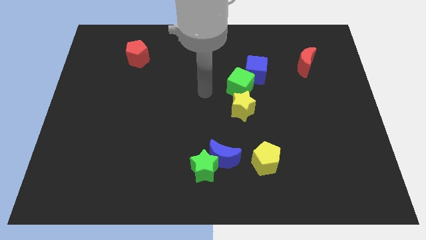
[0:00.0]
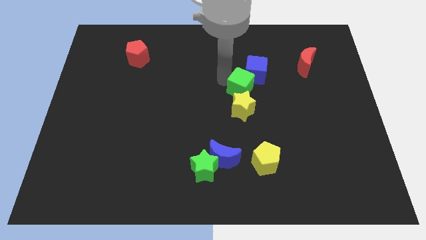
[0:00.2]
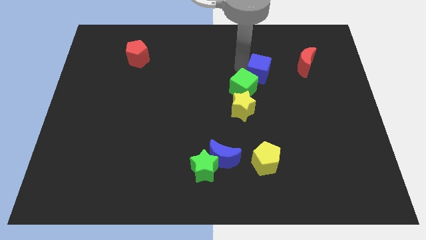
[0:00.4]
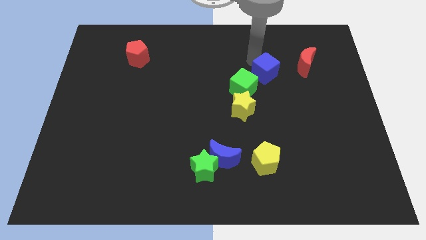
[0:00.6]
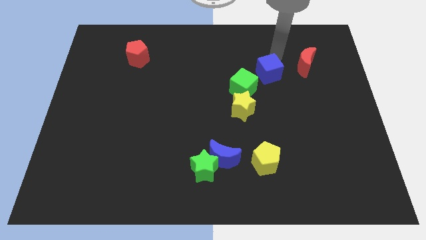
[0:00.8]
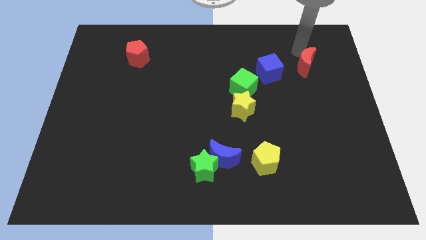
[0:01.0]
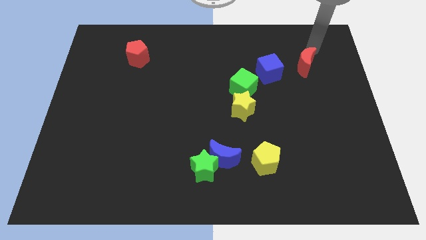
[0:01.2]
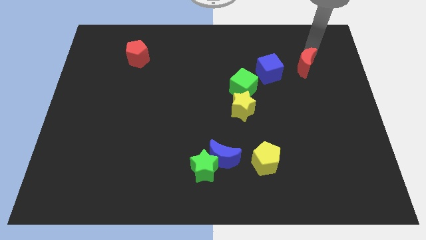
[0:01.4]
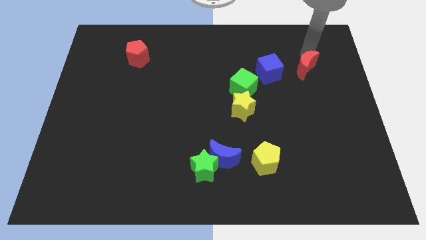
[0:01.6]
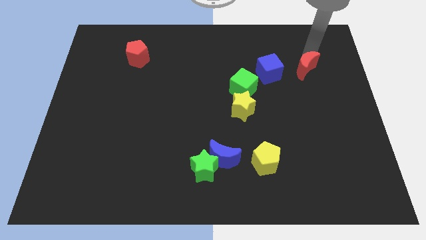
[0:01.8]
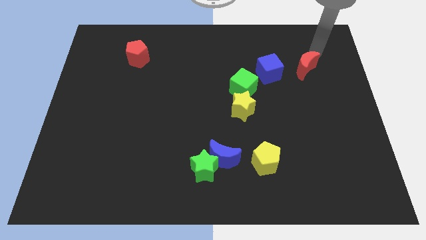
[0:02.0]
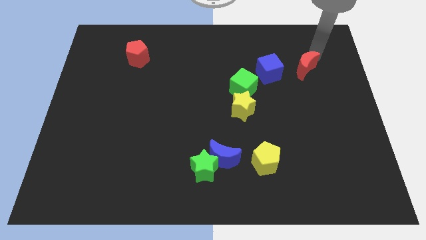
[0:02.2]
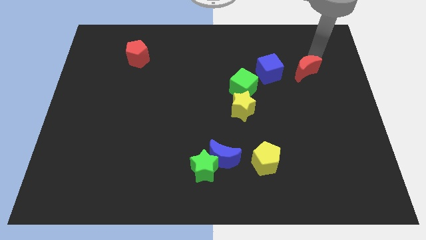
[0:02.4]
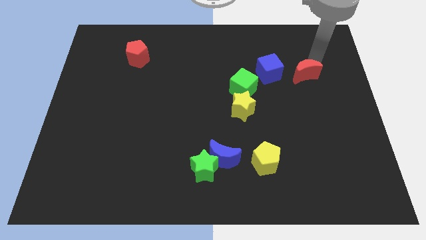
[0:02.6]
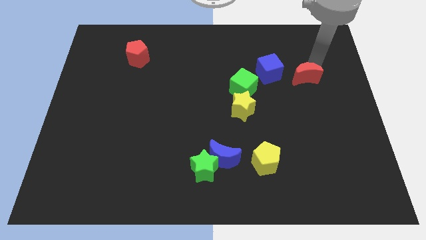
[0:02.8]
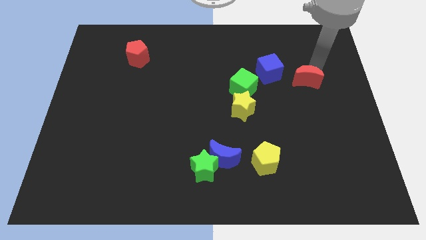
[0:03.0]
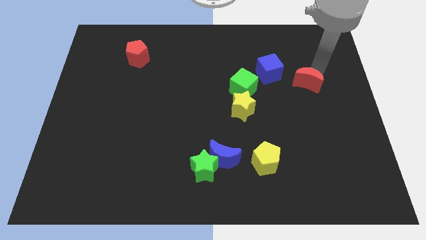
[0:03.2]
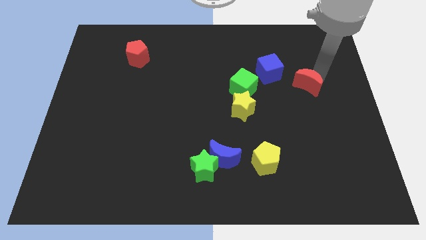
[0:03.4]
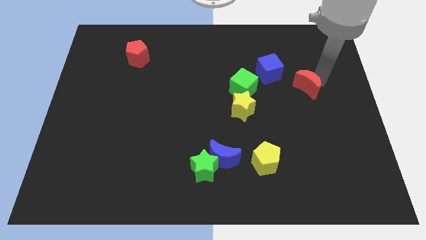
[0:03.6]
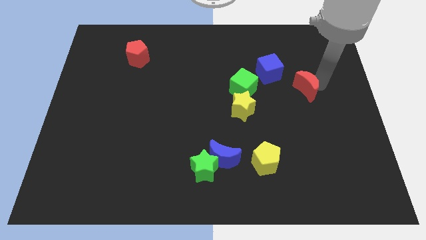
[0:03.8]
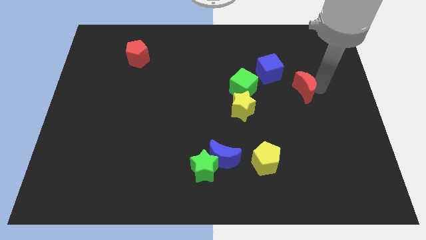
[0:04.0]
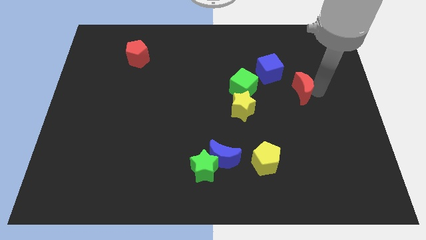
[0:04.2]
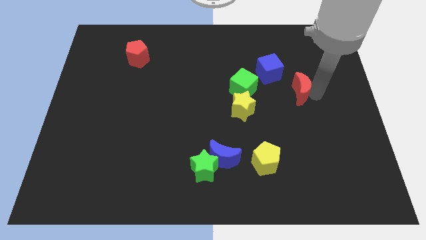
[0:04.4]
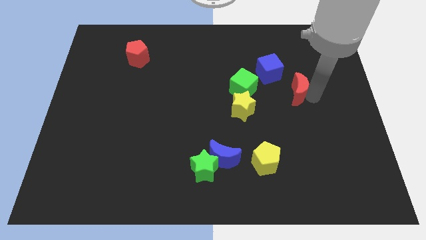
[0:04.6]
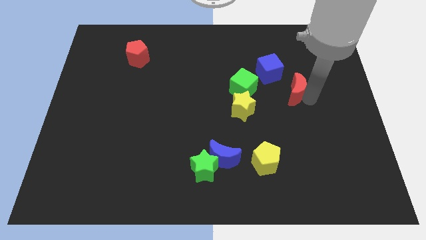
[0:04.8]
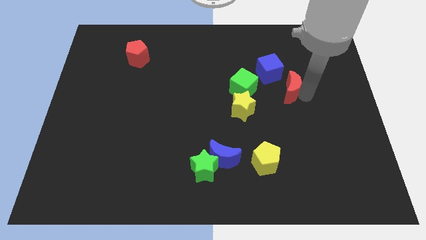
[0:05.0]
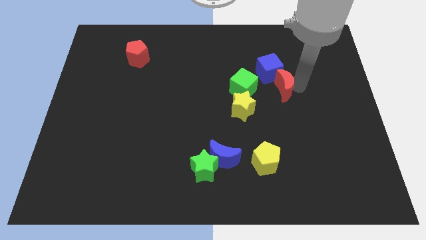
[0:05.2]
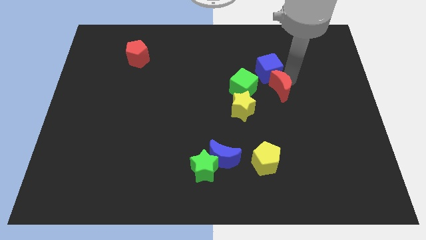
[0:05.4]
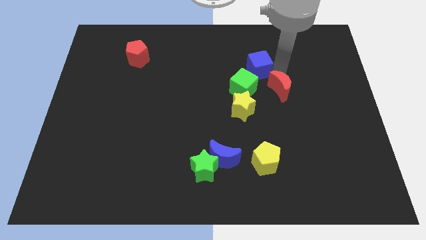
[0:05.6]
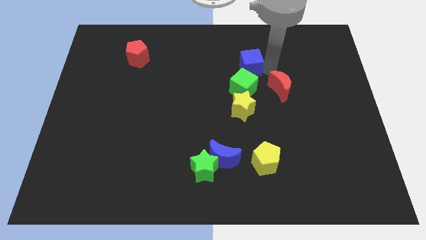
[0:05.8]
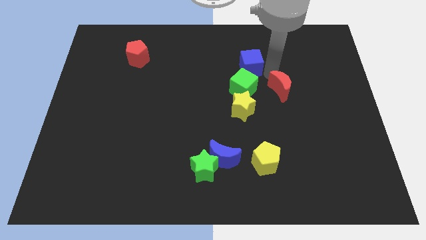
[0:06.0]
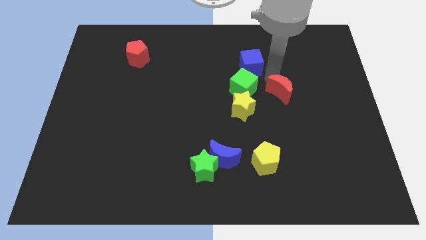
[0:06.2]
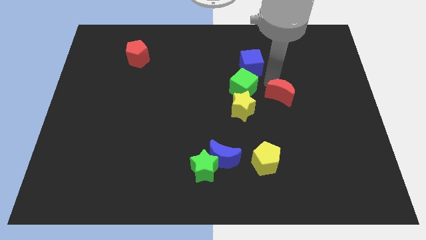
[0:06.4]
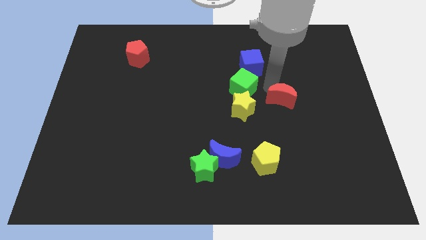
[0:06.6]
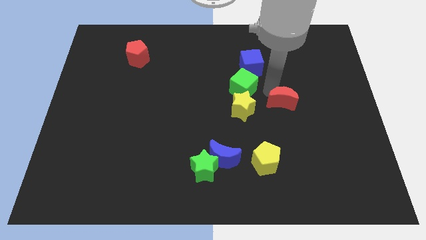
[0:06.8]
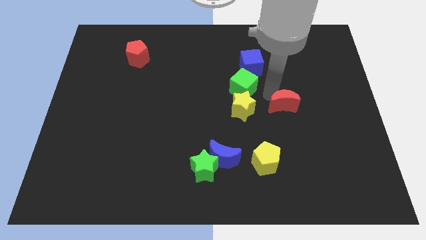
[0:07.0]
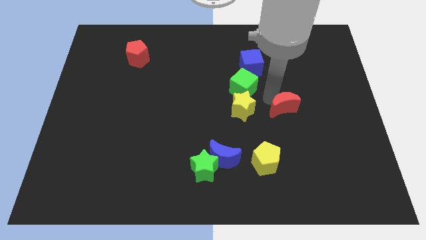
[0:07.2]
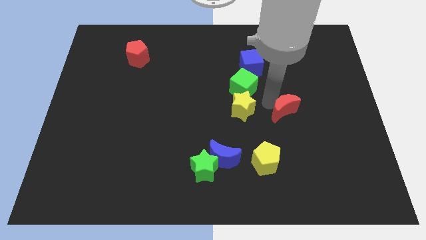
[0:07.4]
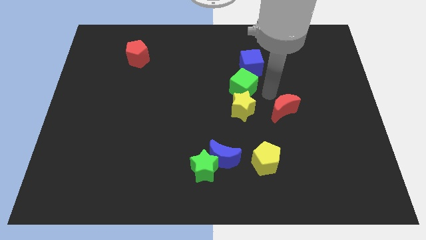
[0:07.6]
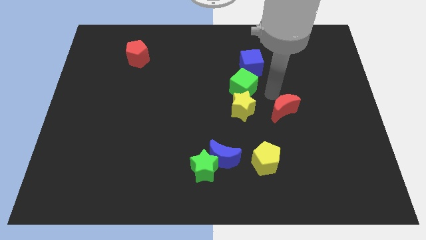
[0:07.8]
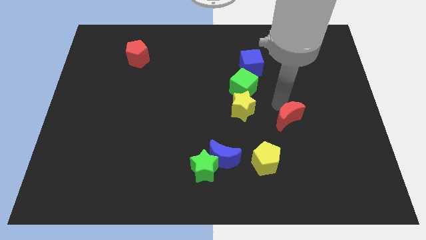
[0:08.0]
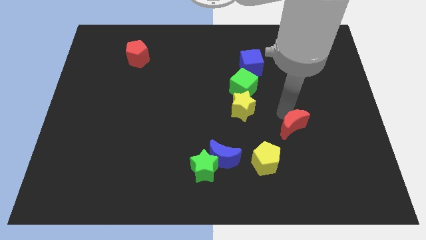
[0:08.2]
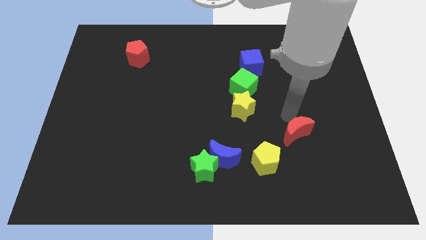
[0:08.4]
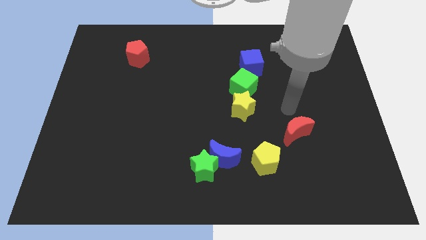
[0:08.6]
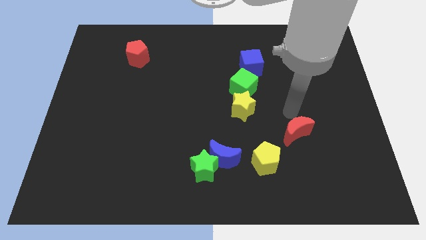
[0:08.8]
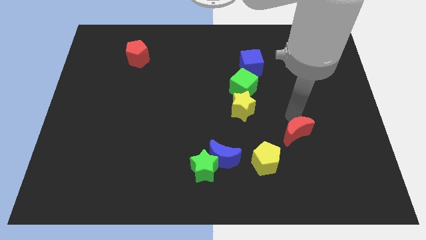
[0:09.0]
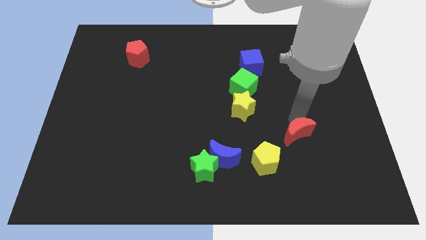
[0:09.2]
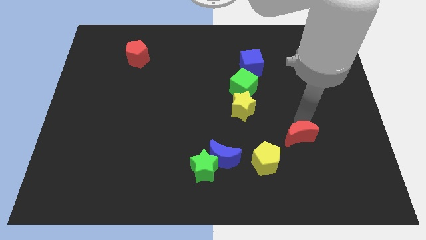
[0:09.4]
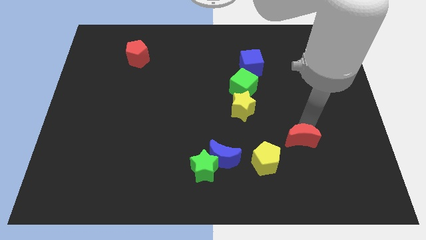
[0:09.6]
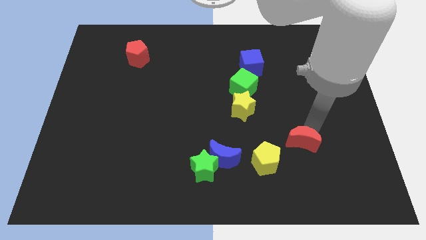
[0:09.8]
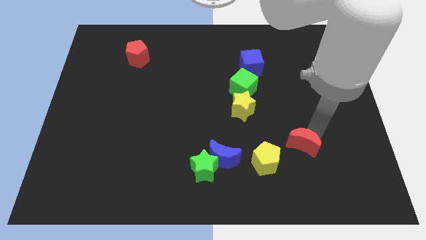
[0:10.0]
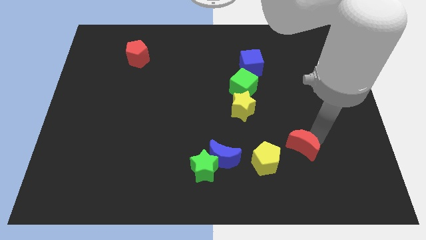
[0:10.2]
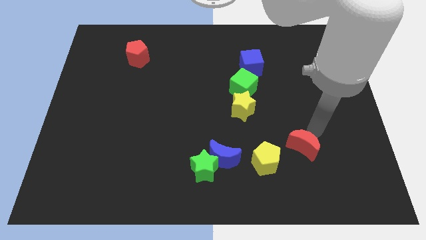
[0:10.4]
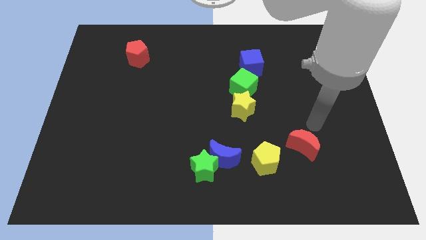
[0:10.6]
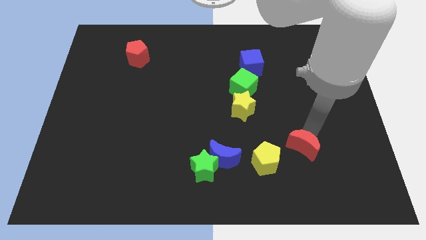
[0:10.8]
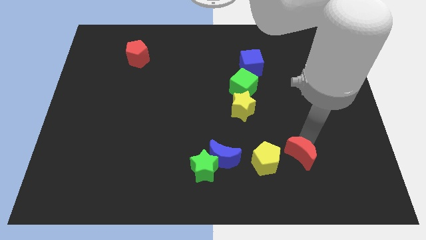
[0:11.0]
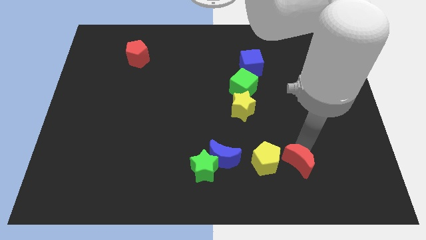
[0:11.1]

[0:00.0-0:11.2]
slide the red moon diagonally down and to the right of the yellow pentagon
